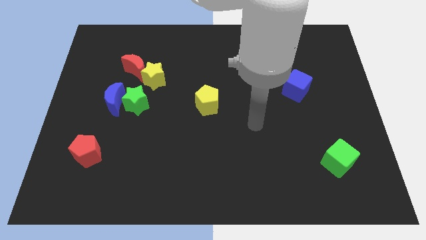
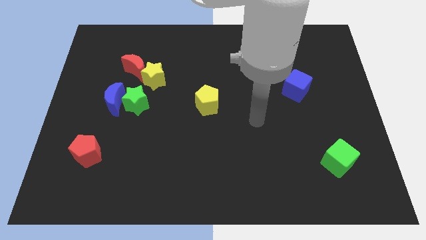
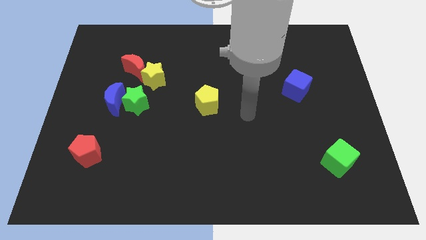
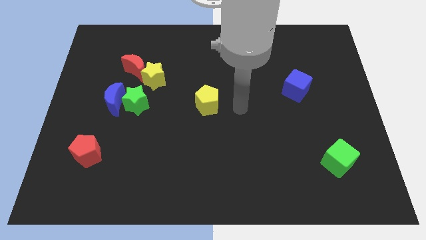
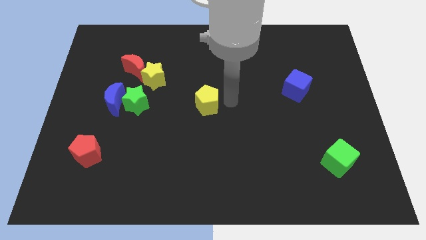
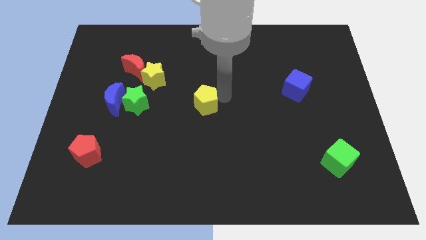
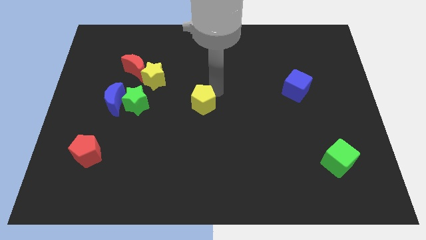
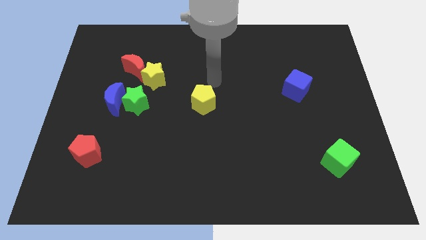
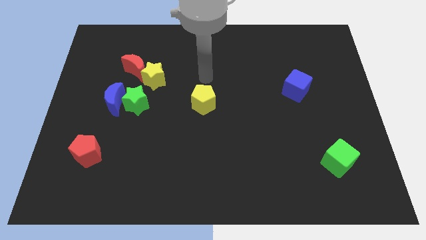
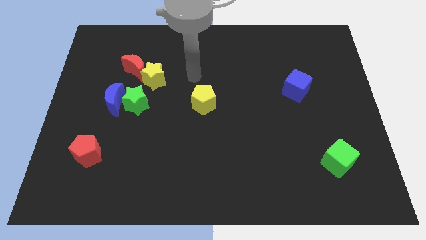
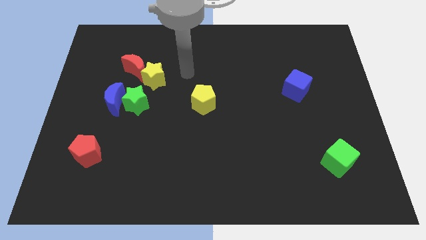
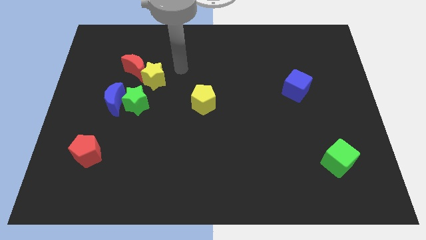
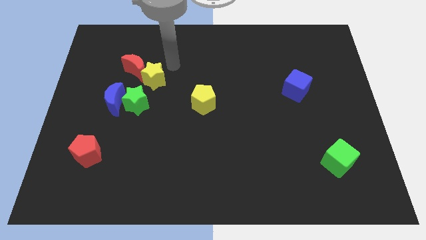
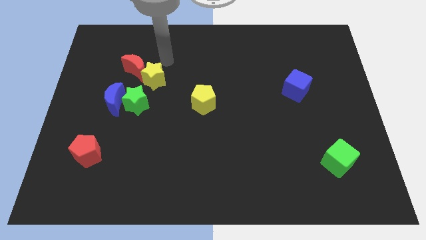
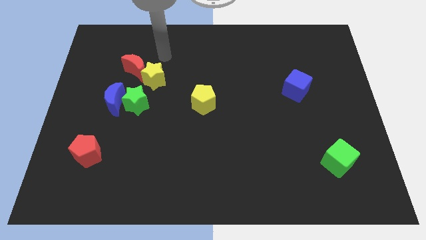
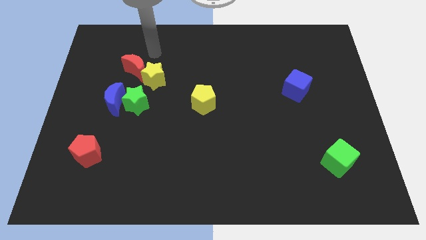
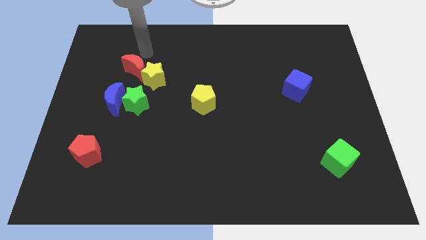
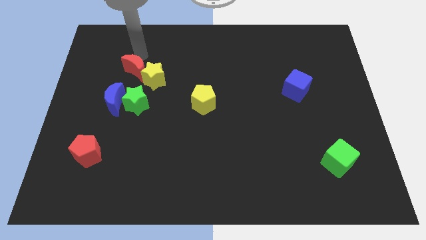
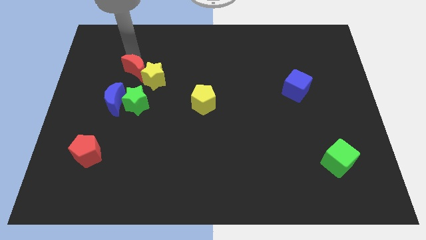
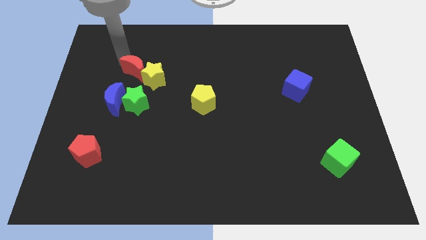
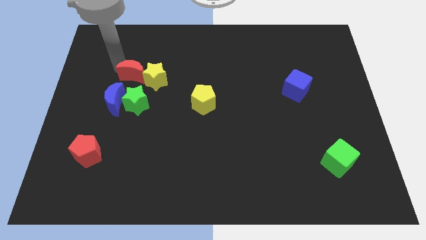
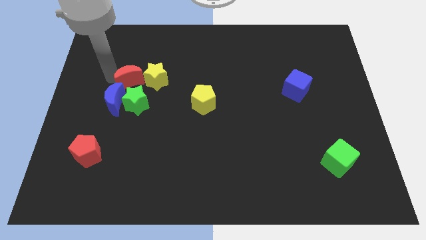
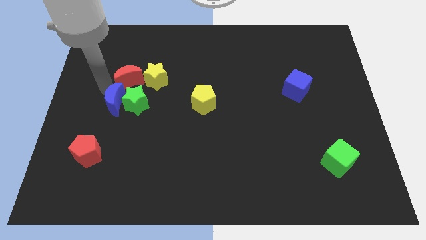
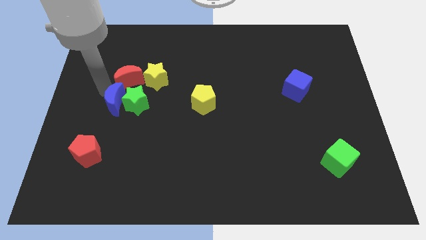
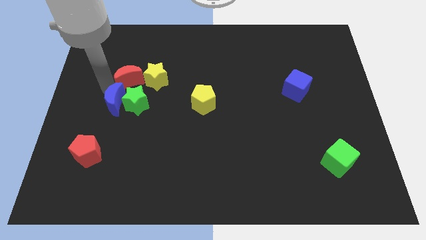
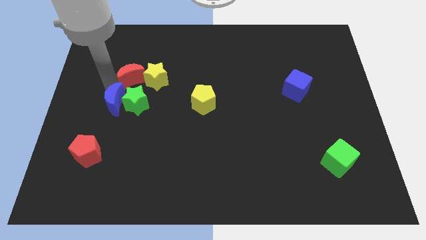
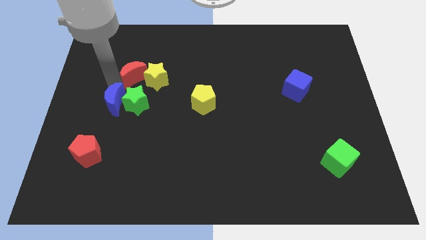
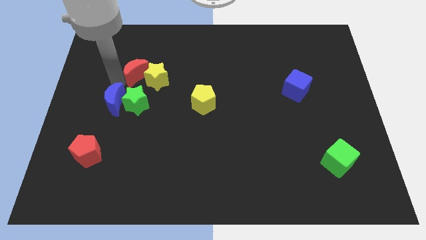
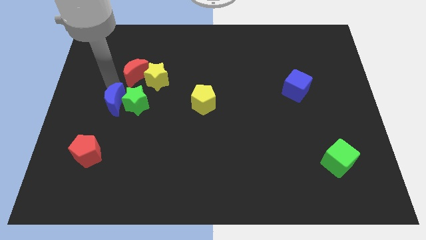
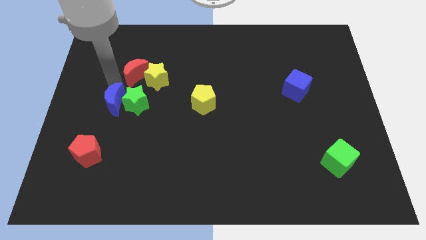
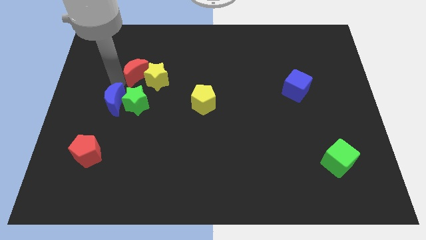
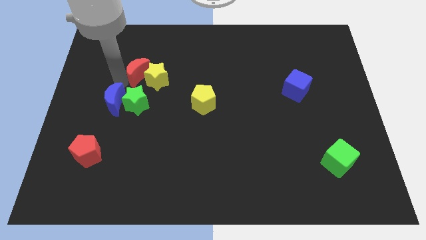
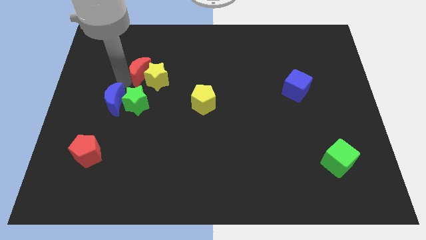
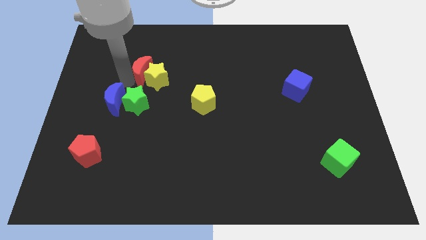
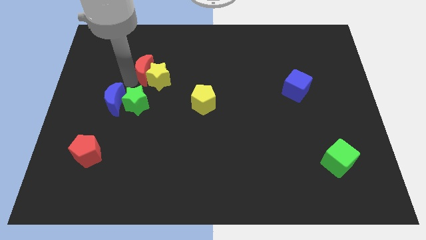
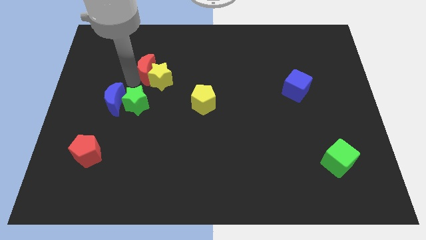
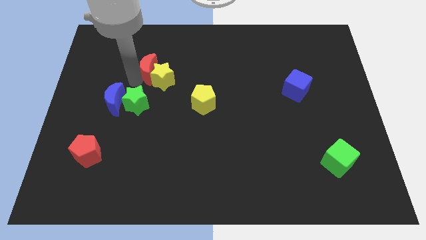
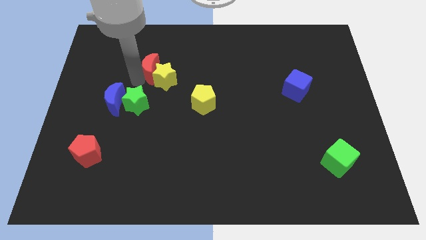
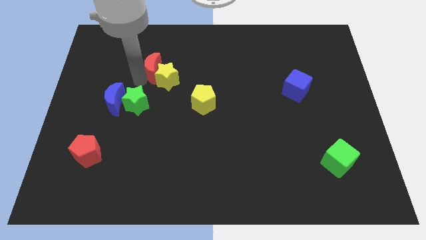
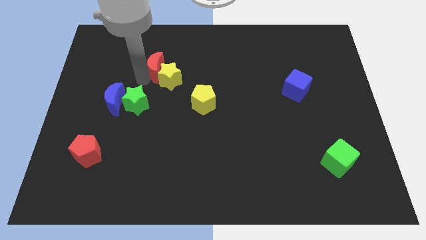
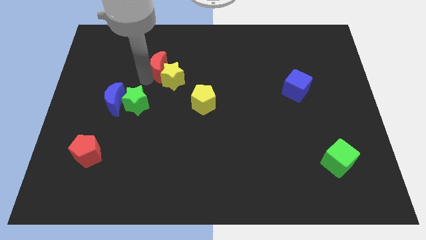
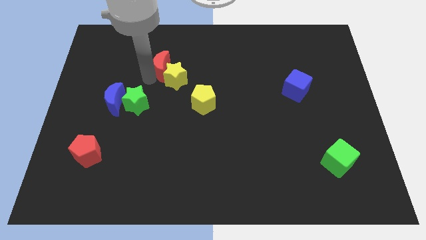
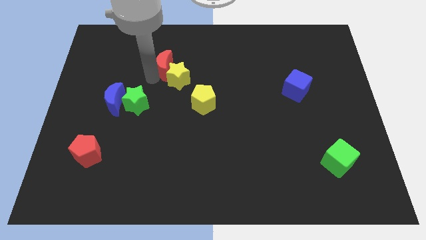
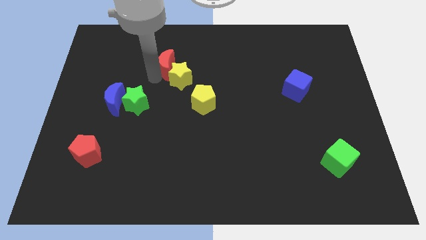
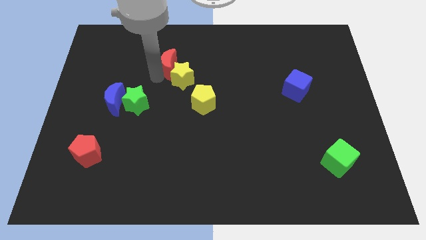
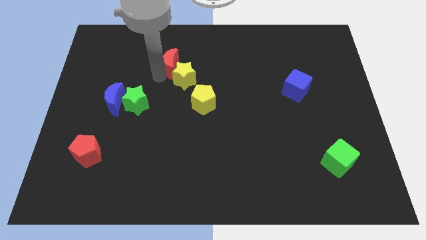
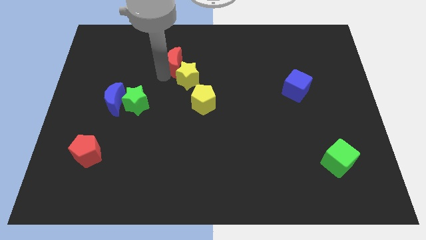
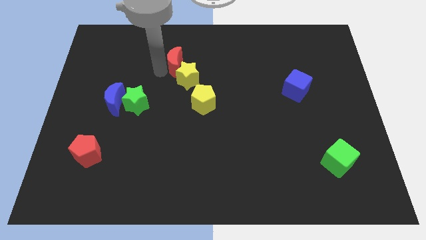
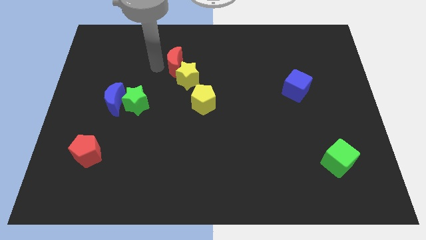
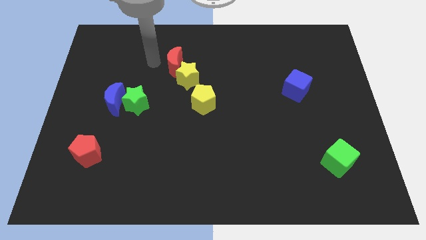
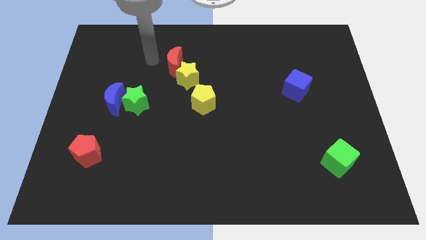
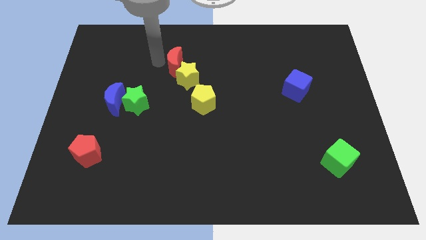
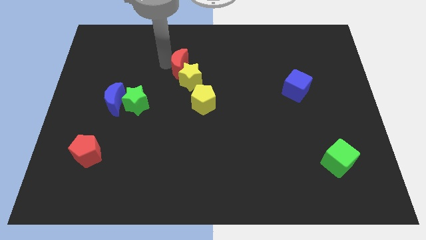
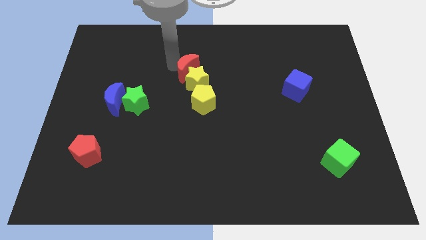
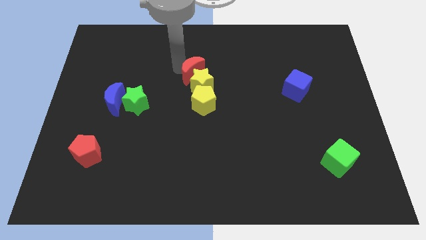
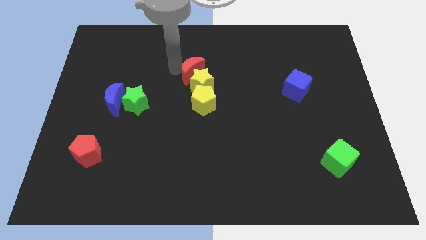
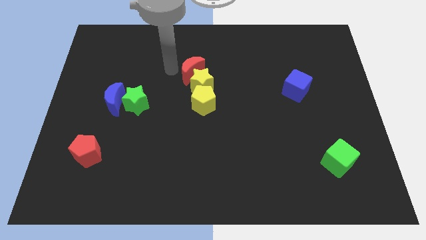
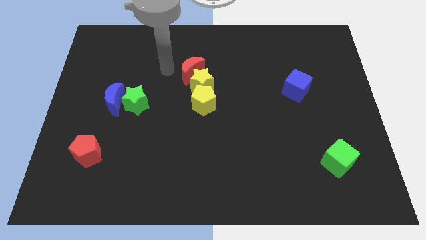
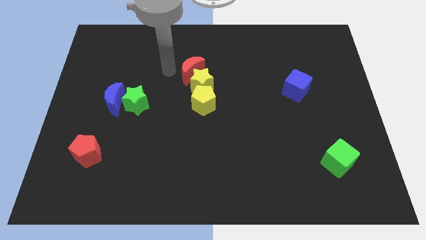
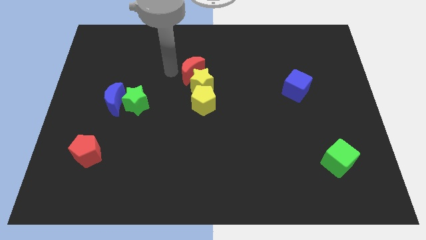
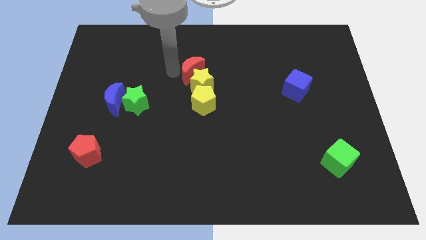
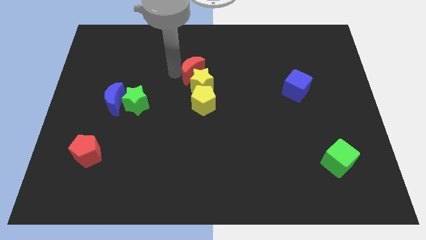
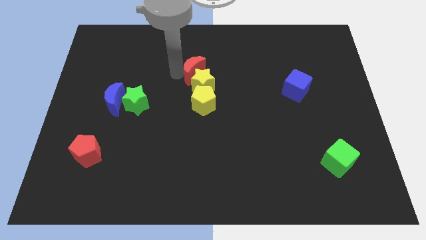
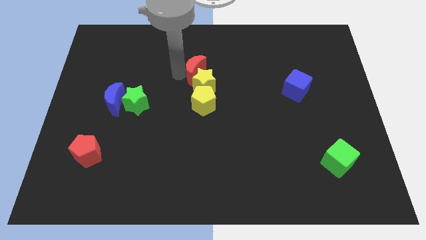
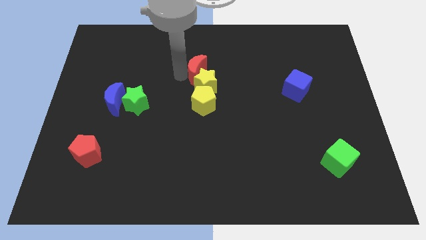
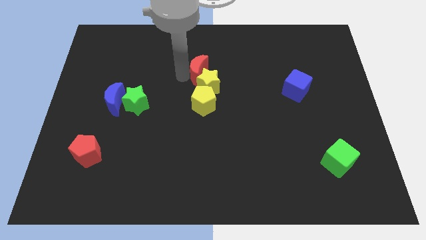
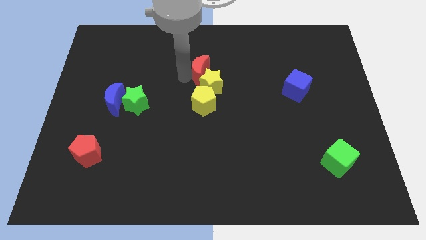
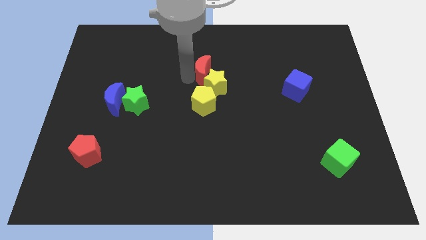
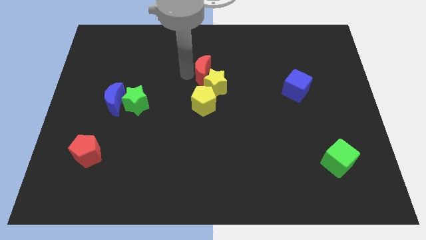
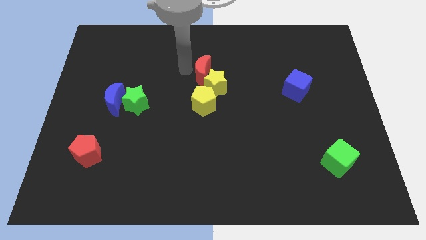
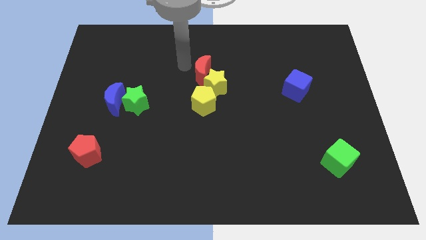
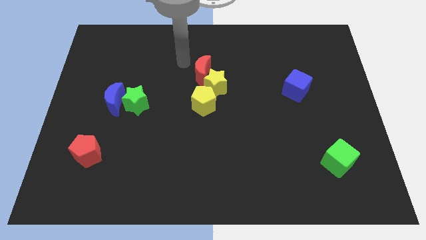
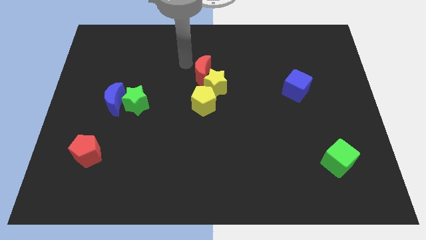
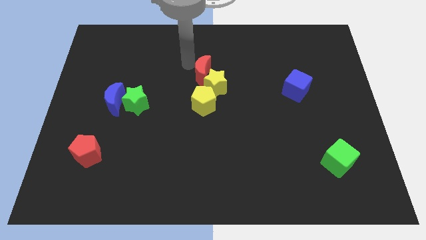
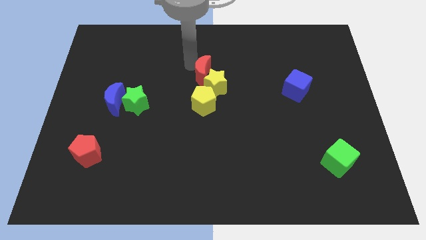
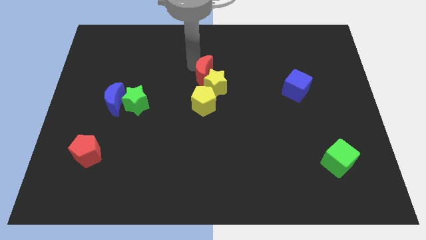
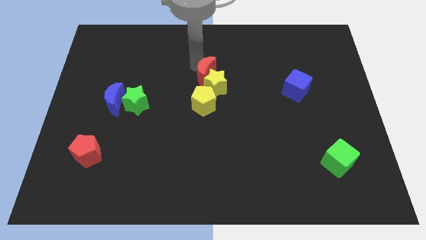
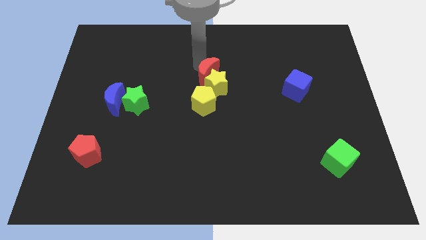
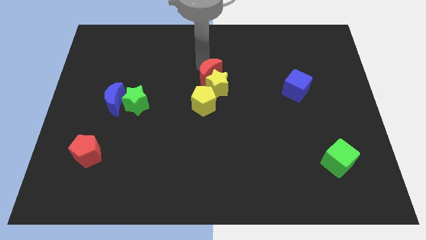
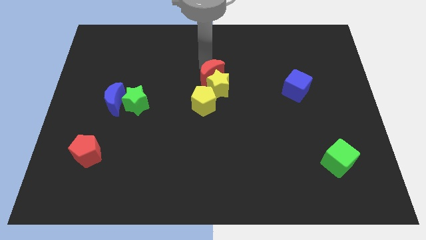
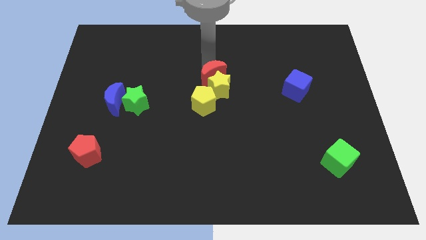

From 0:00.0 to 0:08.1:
move the red moon to the top right of the yellow pentagon
